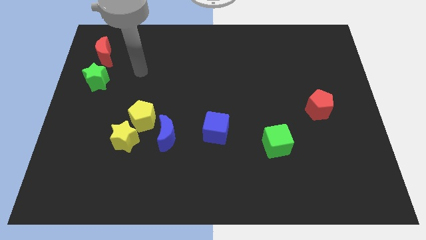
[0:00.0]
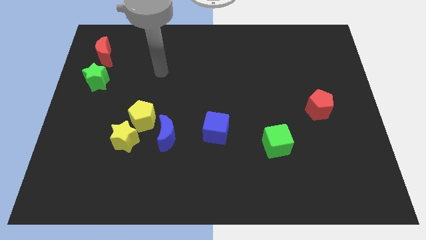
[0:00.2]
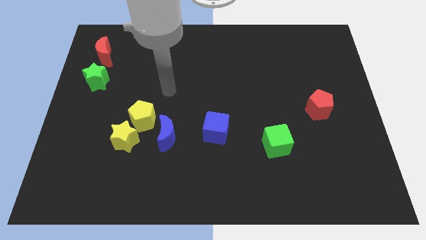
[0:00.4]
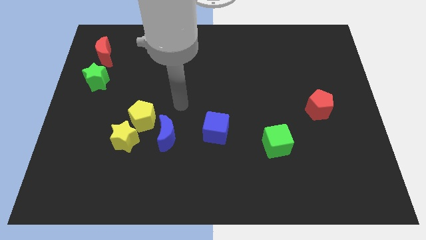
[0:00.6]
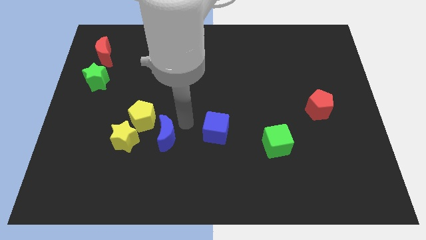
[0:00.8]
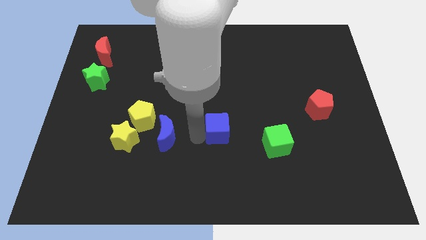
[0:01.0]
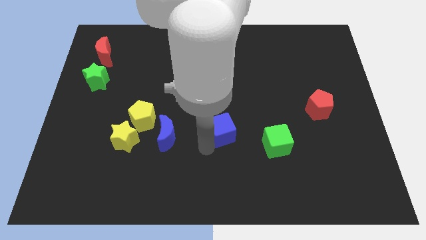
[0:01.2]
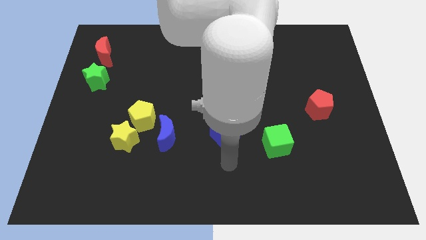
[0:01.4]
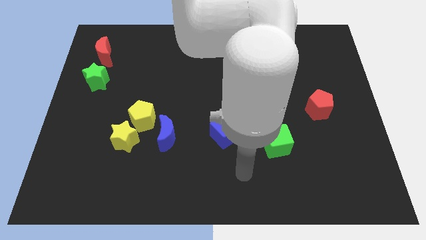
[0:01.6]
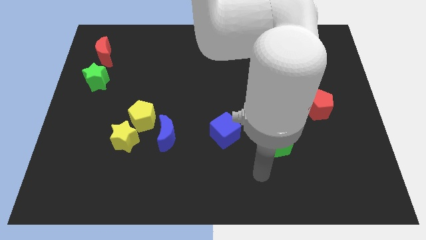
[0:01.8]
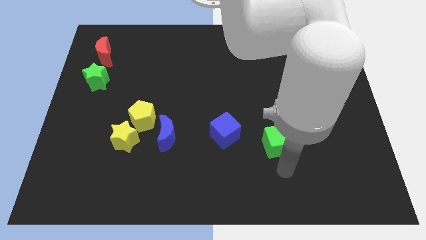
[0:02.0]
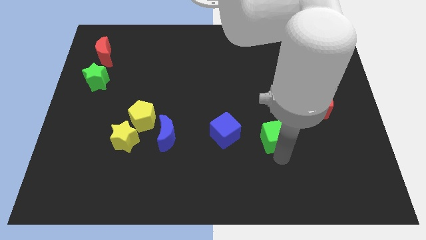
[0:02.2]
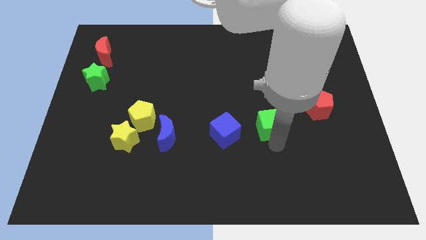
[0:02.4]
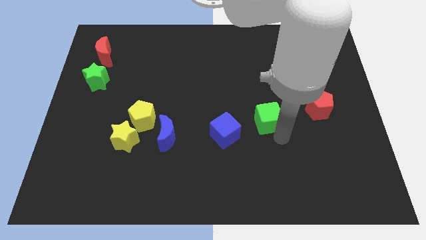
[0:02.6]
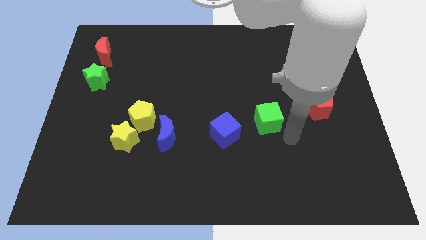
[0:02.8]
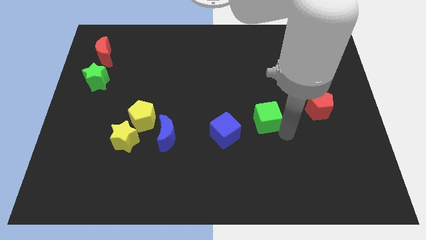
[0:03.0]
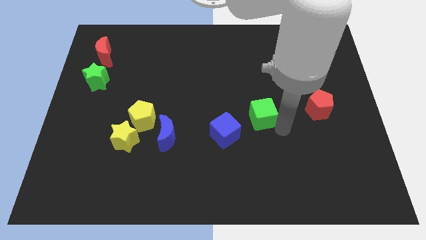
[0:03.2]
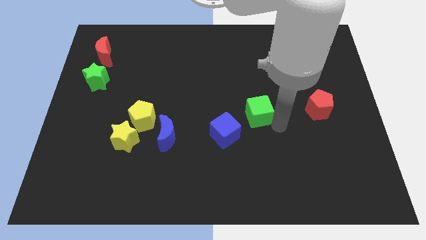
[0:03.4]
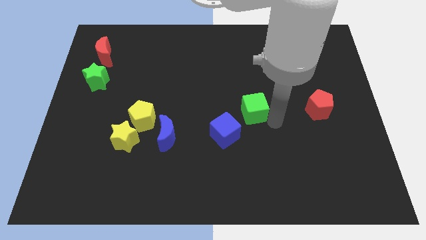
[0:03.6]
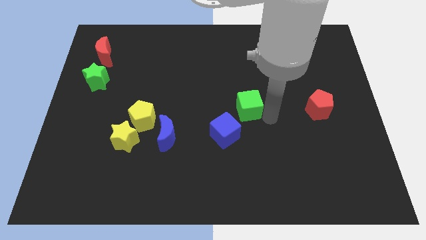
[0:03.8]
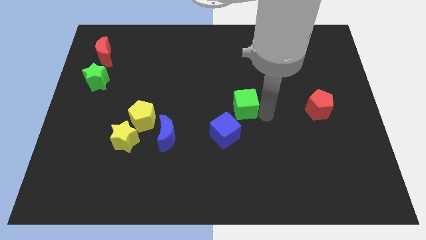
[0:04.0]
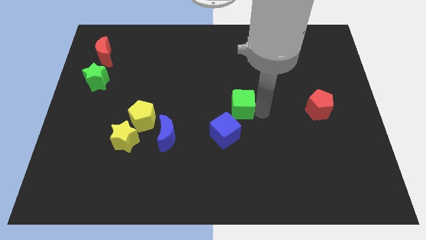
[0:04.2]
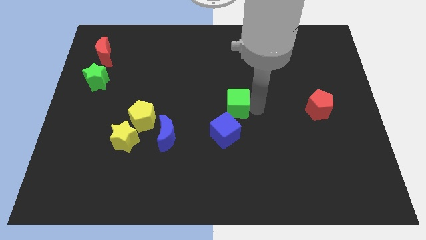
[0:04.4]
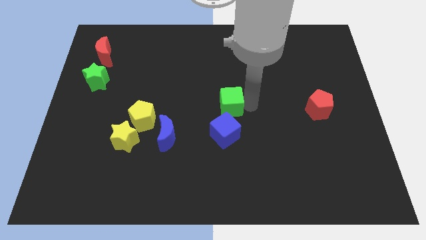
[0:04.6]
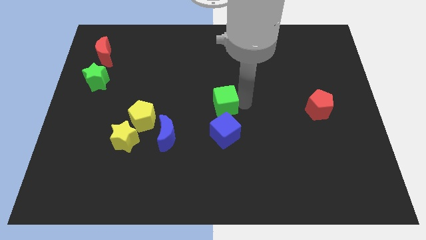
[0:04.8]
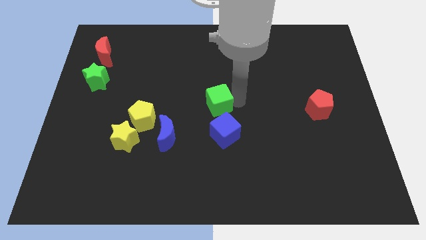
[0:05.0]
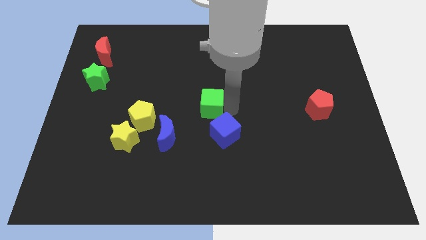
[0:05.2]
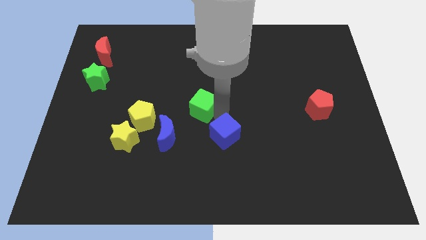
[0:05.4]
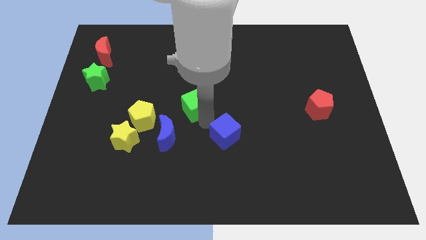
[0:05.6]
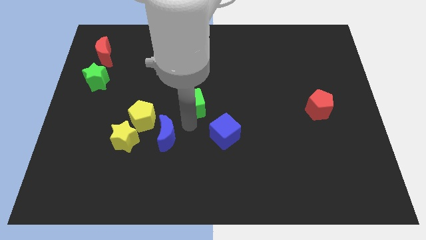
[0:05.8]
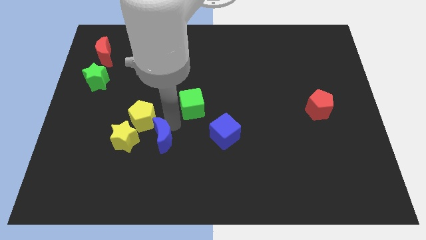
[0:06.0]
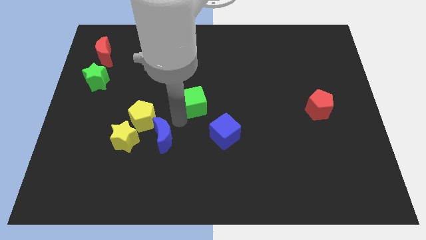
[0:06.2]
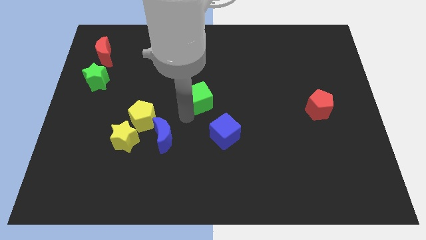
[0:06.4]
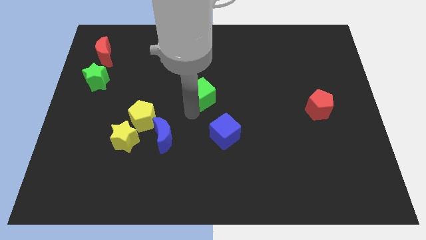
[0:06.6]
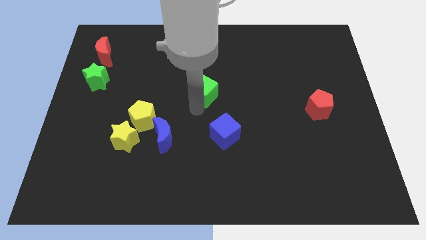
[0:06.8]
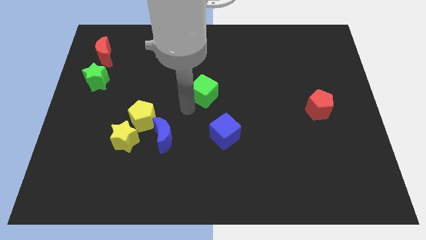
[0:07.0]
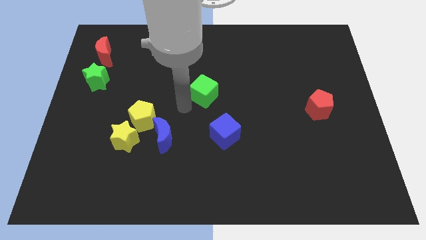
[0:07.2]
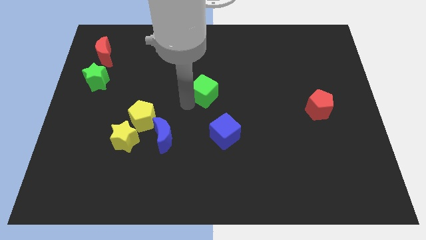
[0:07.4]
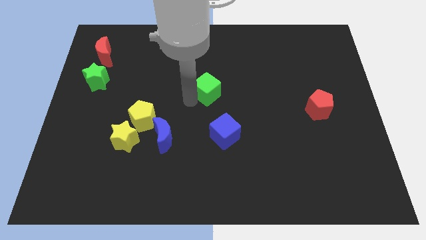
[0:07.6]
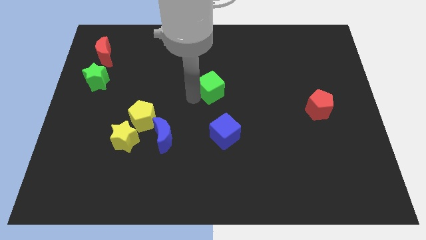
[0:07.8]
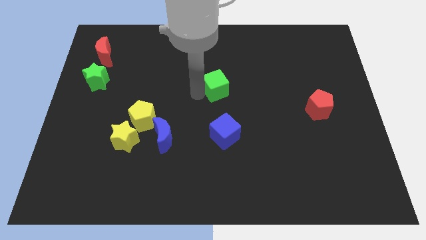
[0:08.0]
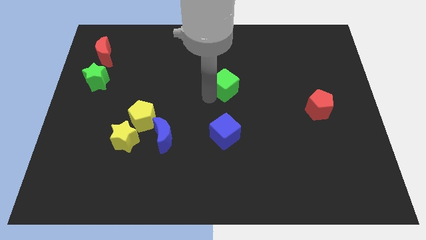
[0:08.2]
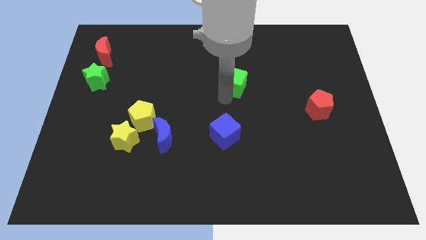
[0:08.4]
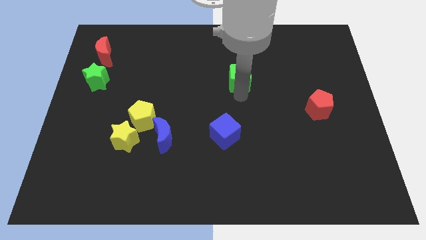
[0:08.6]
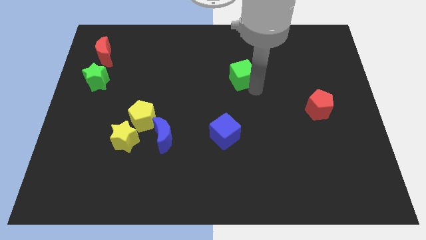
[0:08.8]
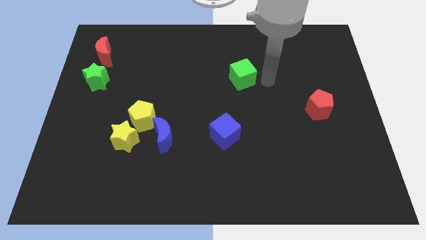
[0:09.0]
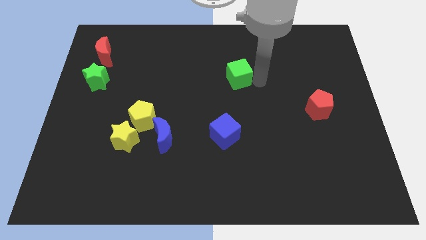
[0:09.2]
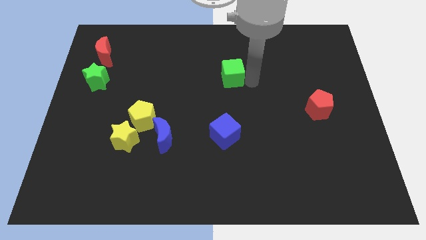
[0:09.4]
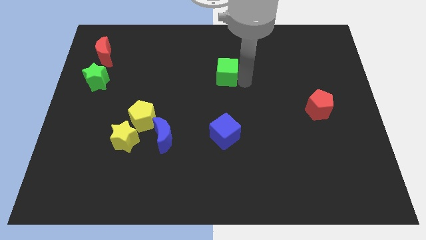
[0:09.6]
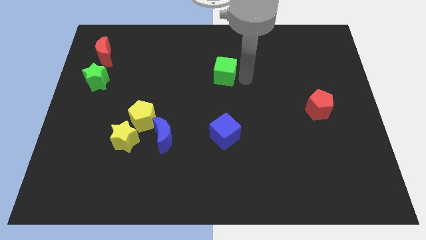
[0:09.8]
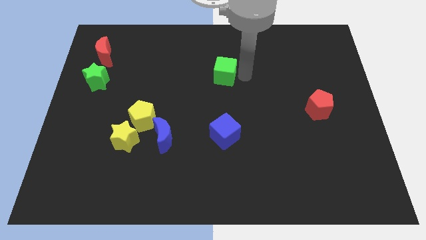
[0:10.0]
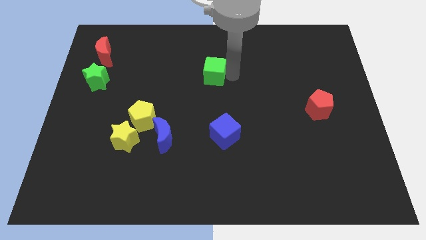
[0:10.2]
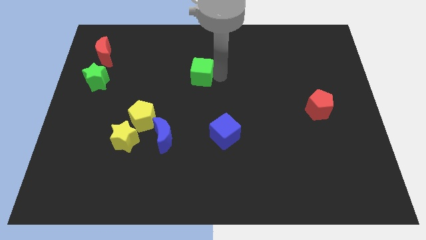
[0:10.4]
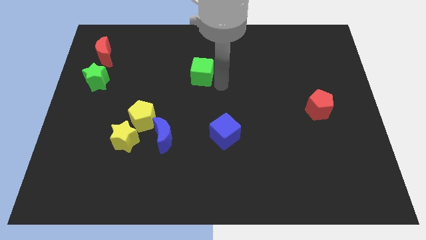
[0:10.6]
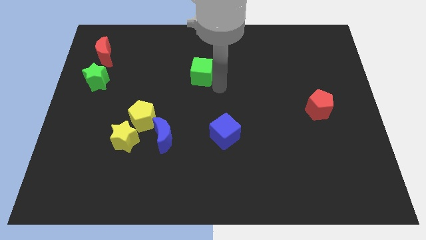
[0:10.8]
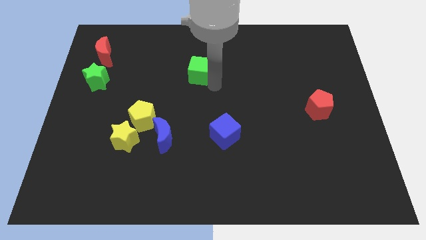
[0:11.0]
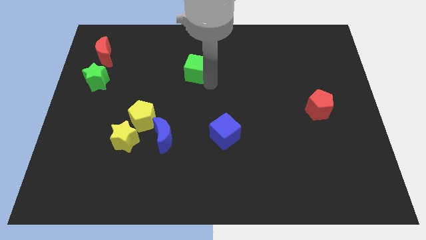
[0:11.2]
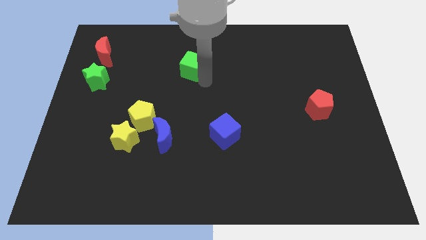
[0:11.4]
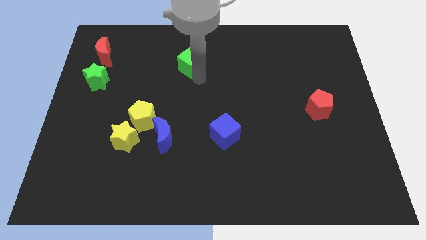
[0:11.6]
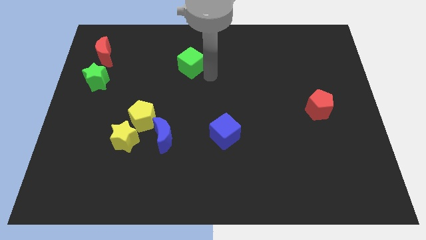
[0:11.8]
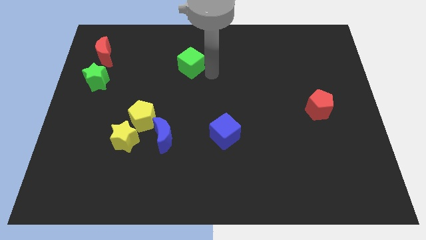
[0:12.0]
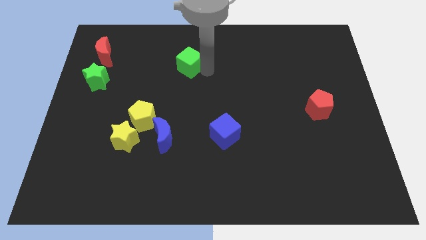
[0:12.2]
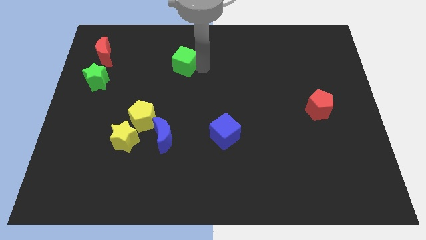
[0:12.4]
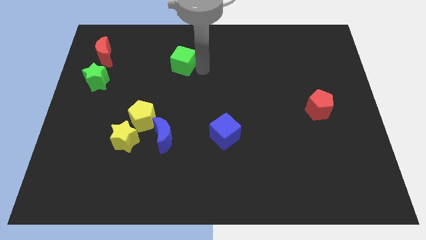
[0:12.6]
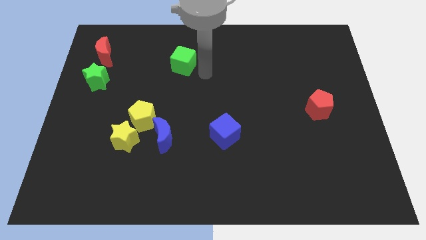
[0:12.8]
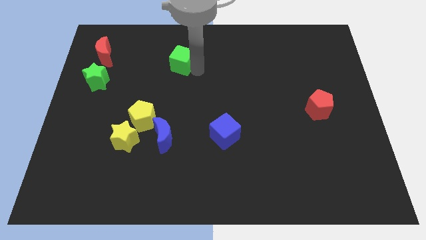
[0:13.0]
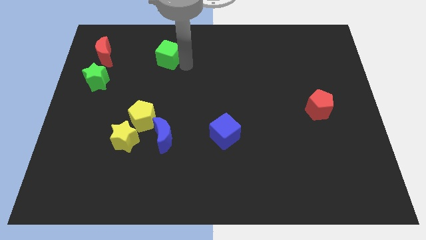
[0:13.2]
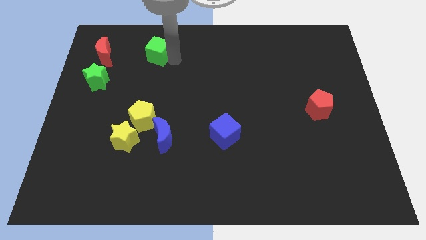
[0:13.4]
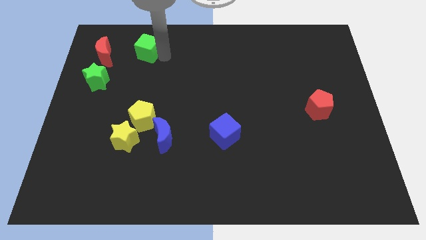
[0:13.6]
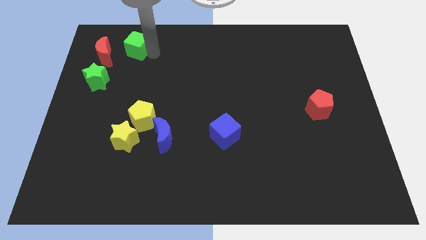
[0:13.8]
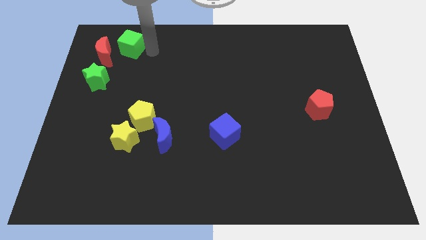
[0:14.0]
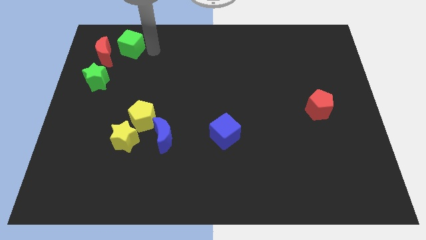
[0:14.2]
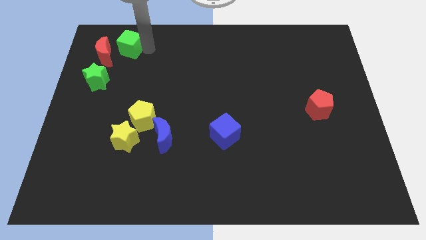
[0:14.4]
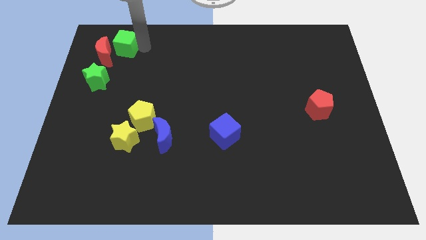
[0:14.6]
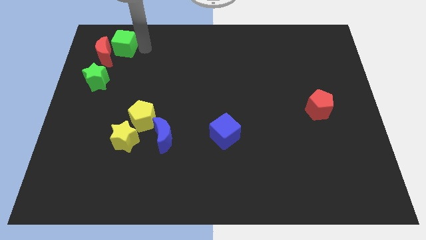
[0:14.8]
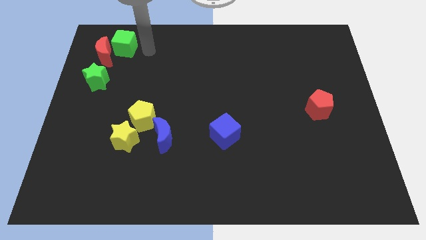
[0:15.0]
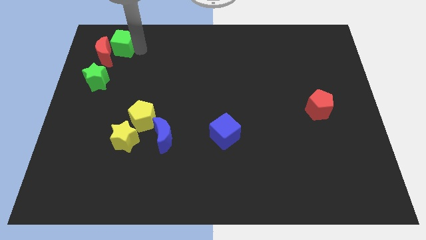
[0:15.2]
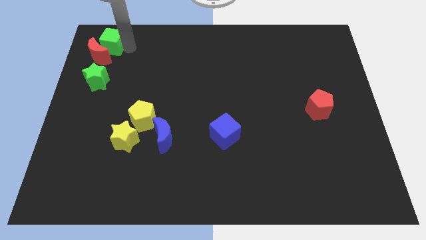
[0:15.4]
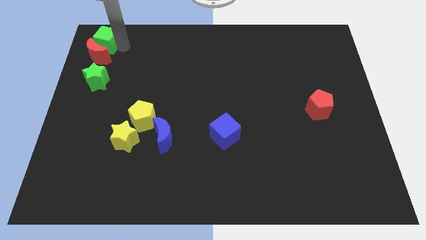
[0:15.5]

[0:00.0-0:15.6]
put the green cube to the top left of the board

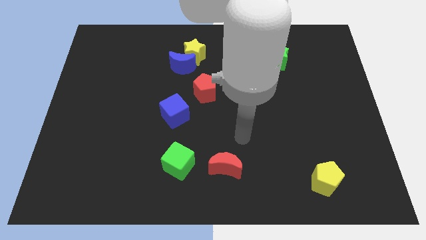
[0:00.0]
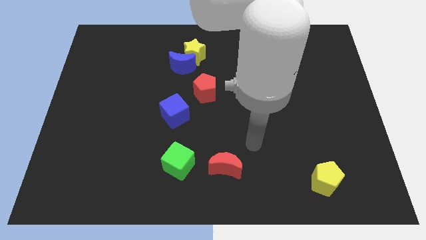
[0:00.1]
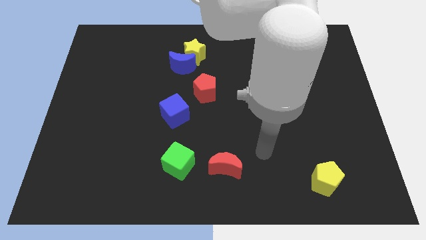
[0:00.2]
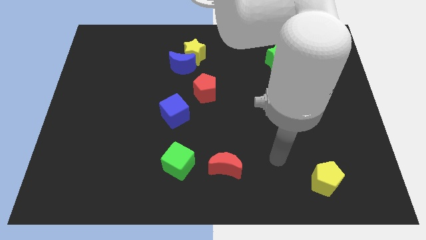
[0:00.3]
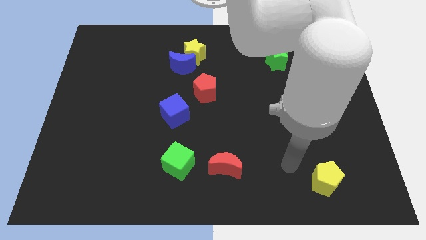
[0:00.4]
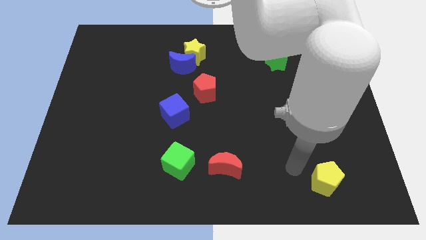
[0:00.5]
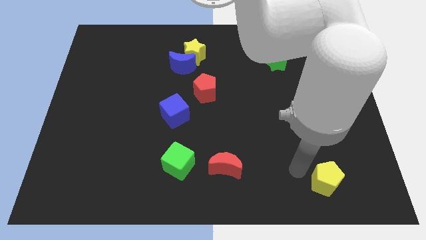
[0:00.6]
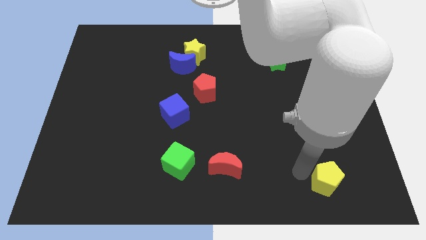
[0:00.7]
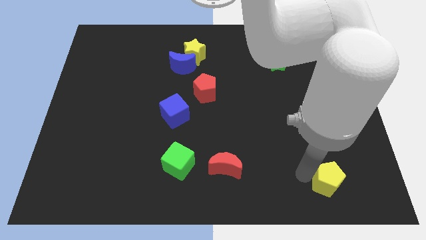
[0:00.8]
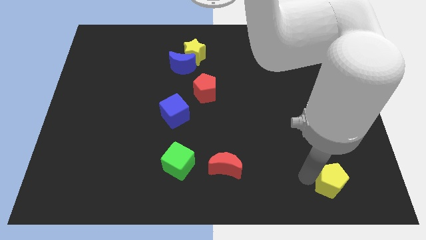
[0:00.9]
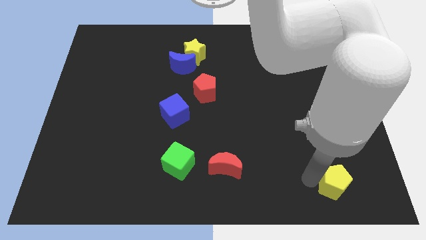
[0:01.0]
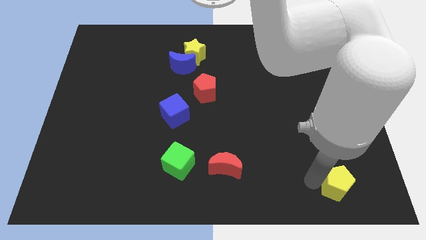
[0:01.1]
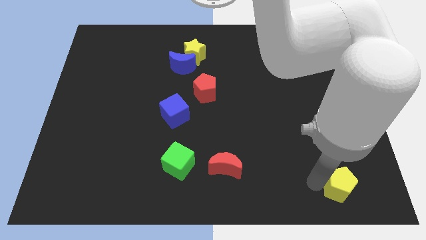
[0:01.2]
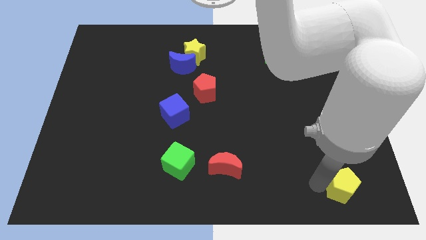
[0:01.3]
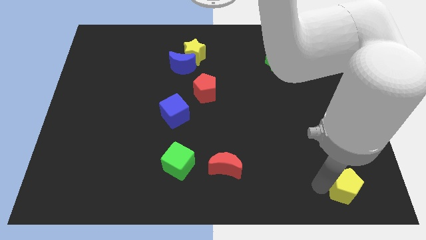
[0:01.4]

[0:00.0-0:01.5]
push the yellow pentagon to the bottom right
